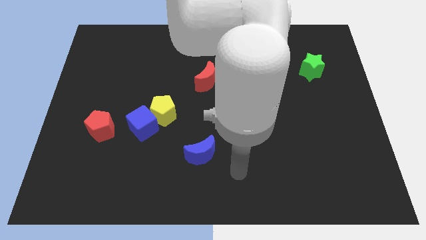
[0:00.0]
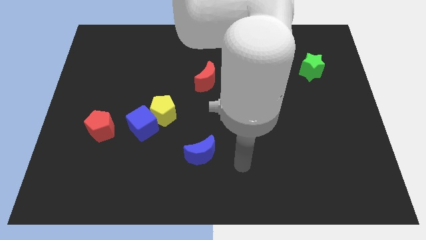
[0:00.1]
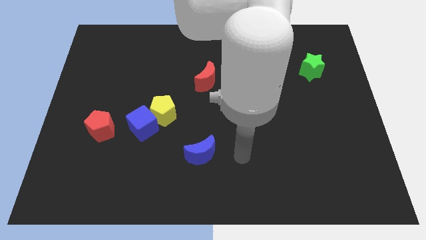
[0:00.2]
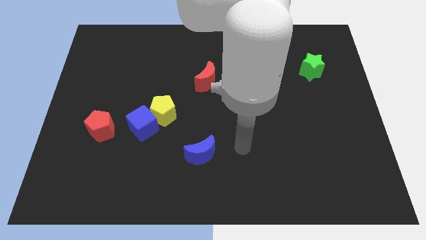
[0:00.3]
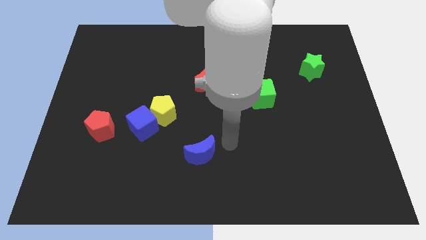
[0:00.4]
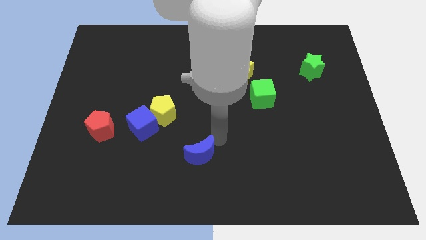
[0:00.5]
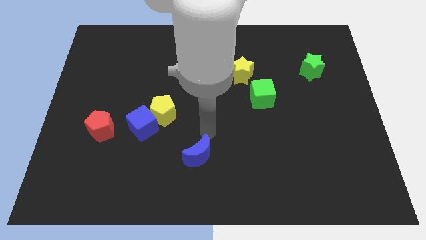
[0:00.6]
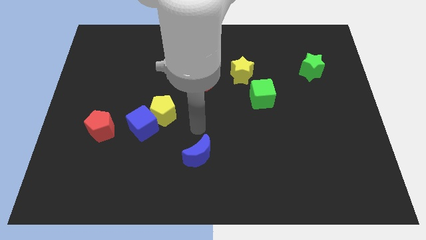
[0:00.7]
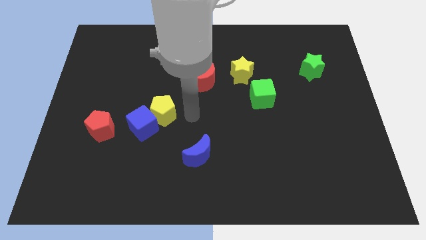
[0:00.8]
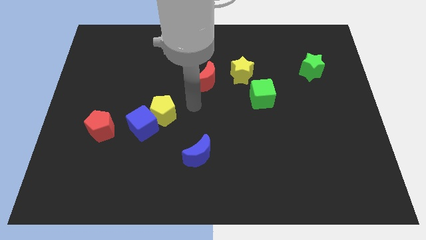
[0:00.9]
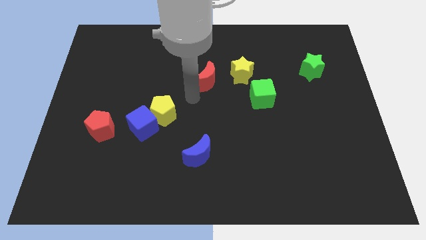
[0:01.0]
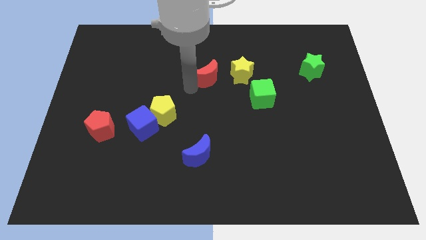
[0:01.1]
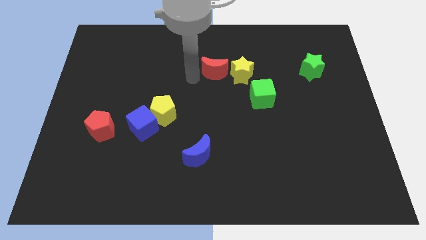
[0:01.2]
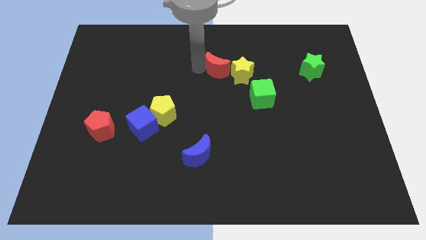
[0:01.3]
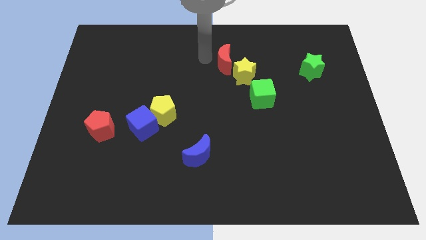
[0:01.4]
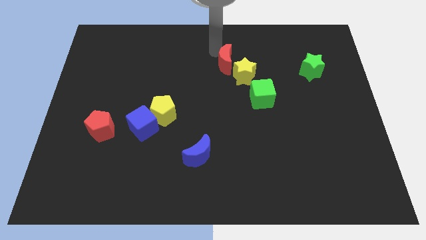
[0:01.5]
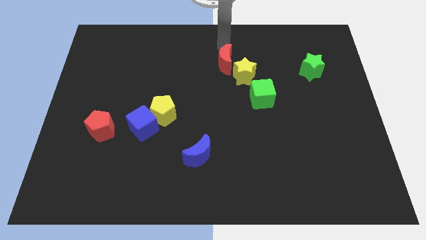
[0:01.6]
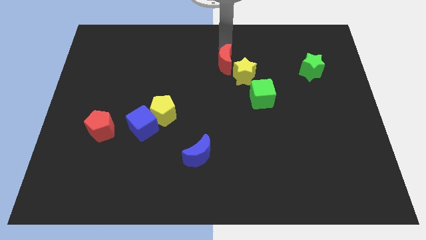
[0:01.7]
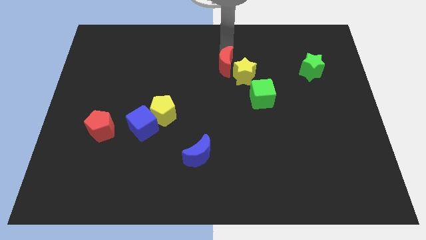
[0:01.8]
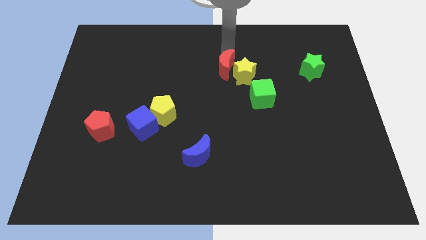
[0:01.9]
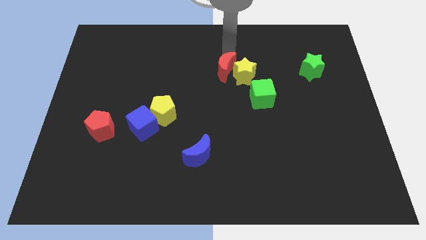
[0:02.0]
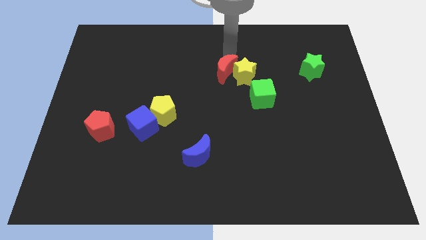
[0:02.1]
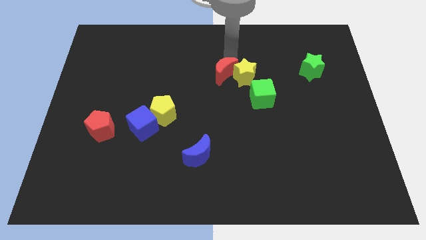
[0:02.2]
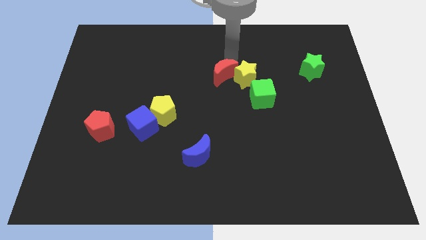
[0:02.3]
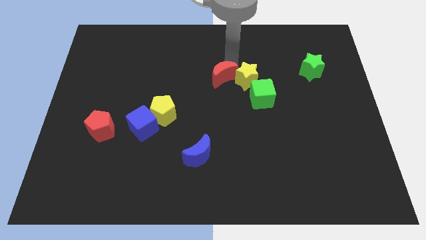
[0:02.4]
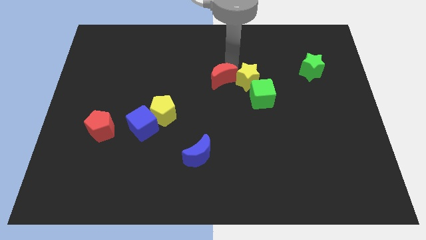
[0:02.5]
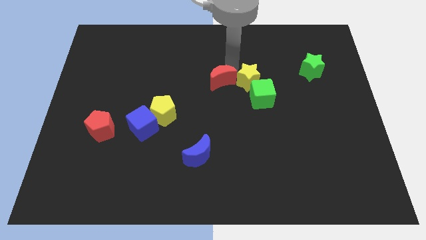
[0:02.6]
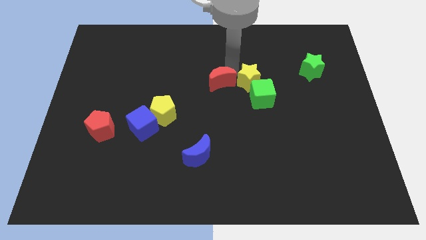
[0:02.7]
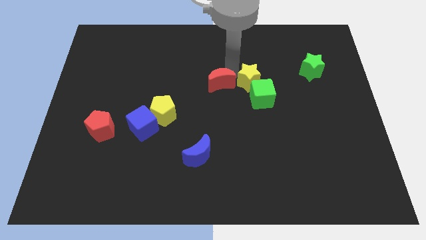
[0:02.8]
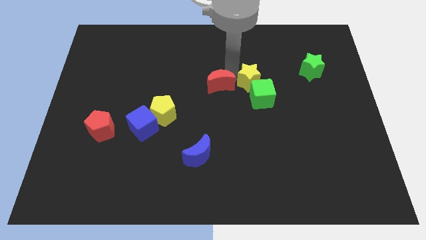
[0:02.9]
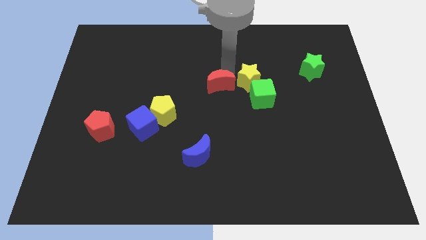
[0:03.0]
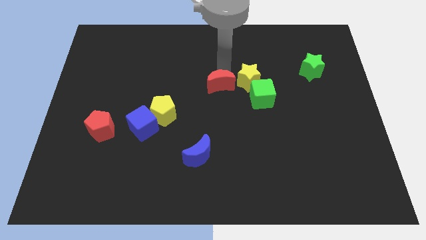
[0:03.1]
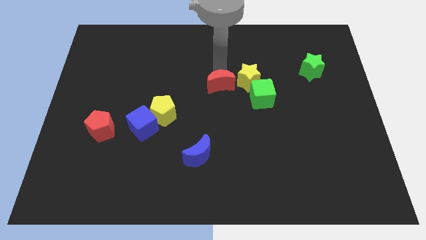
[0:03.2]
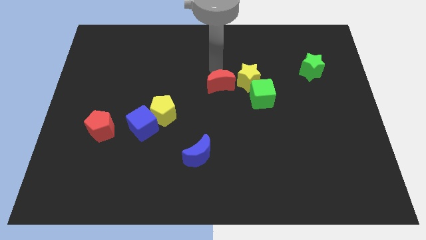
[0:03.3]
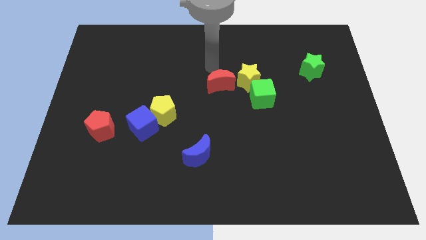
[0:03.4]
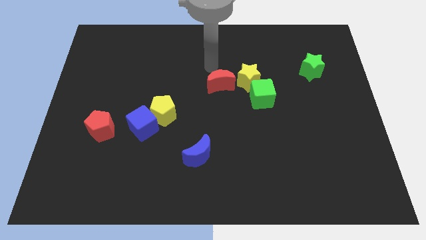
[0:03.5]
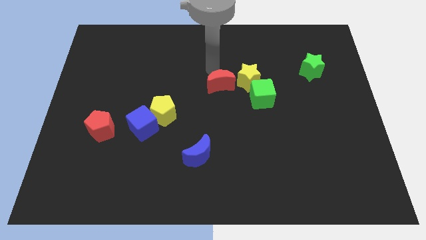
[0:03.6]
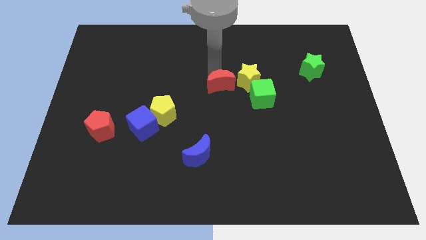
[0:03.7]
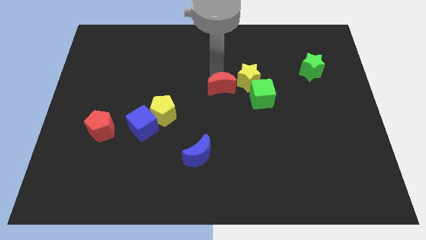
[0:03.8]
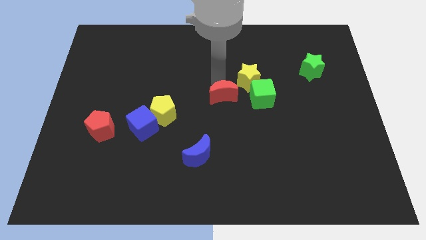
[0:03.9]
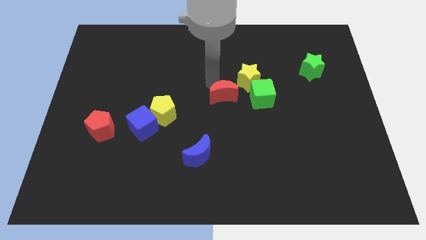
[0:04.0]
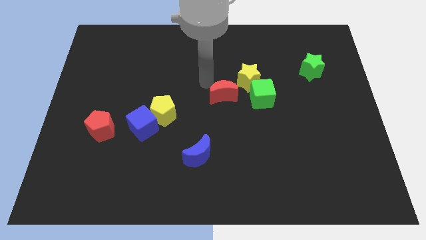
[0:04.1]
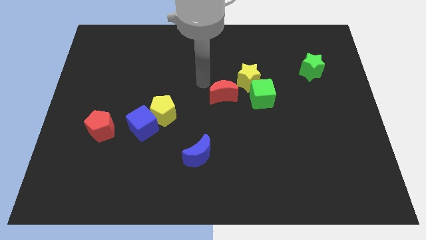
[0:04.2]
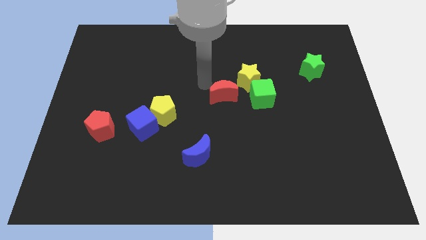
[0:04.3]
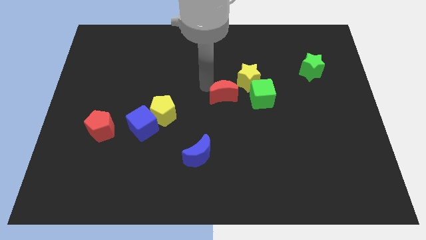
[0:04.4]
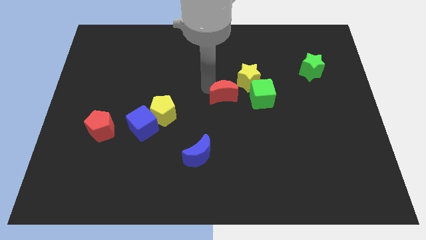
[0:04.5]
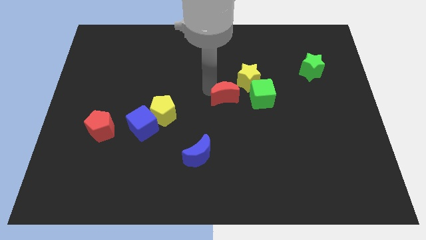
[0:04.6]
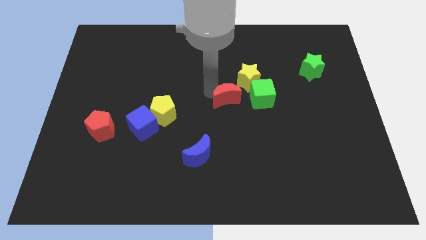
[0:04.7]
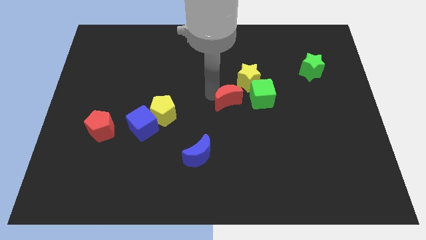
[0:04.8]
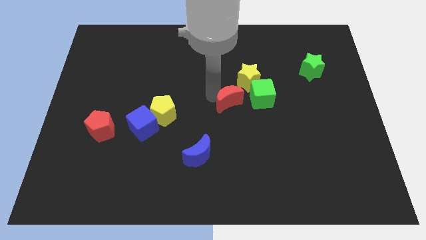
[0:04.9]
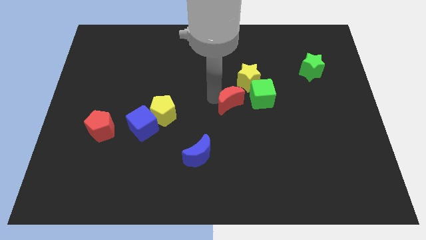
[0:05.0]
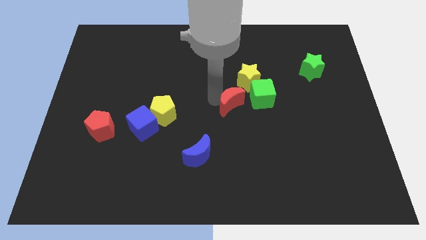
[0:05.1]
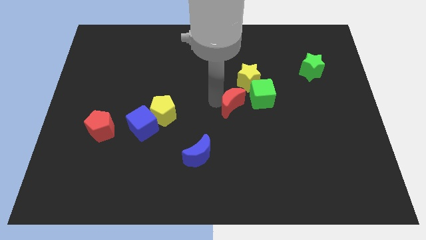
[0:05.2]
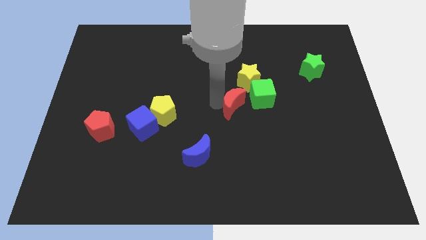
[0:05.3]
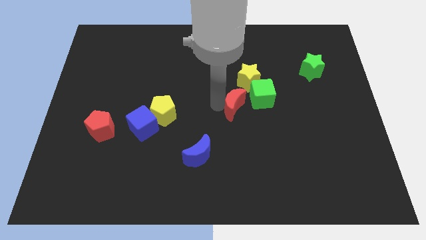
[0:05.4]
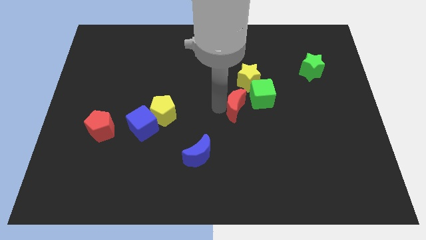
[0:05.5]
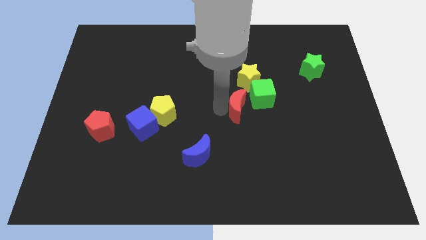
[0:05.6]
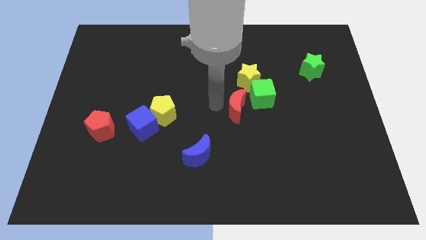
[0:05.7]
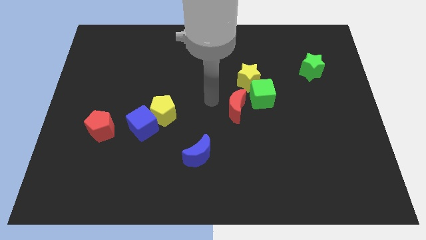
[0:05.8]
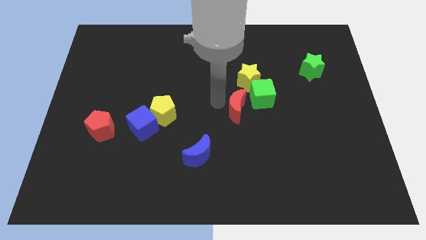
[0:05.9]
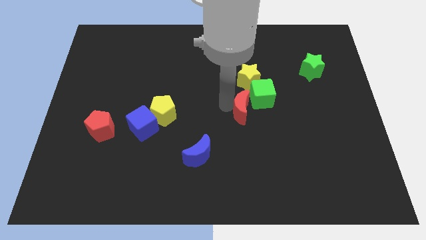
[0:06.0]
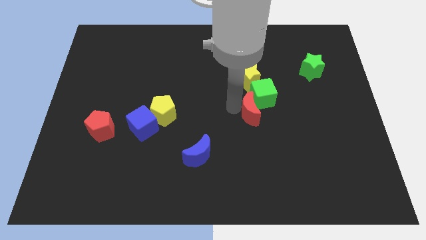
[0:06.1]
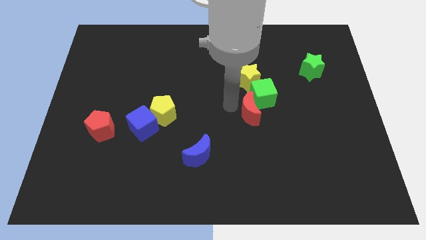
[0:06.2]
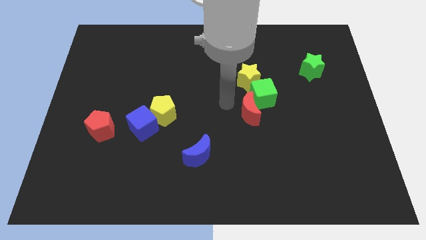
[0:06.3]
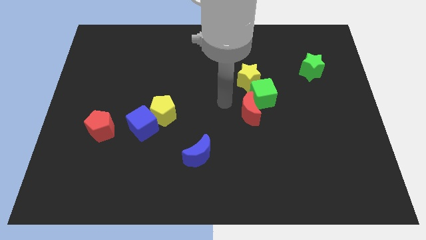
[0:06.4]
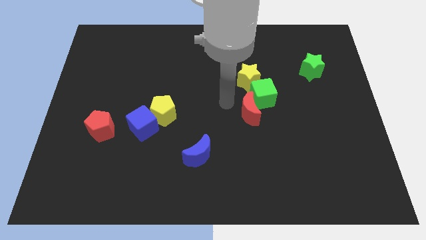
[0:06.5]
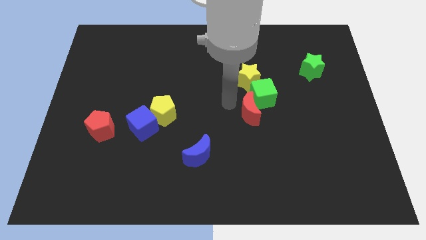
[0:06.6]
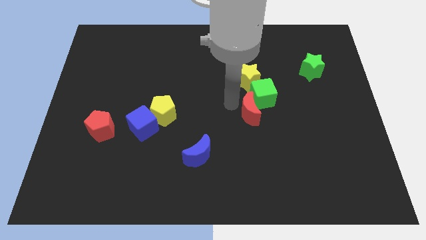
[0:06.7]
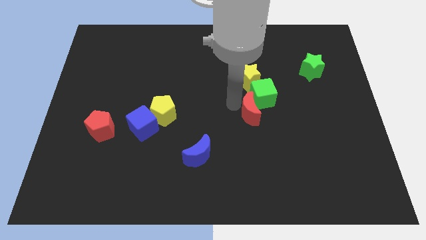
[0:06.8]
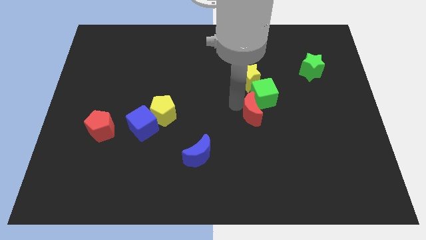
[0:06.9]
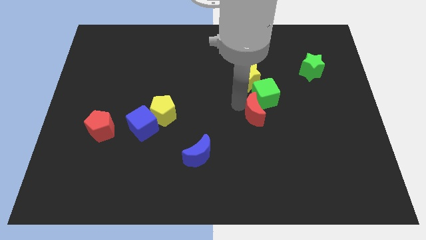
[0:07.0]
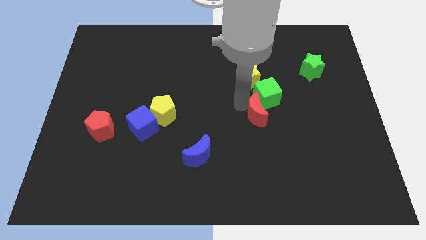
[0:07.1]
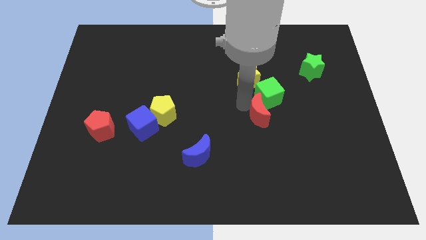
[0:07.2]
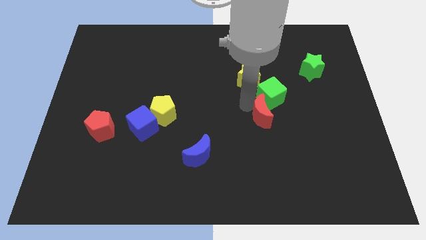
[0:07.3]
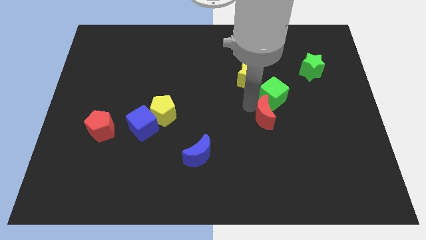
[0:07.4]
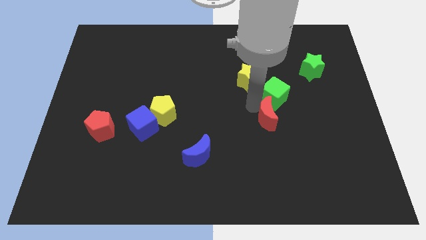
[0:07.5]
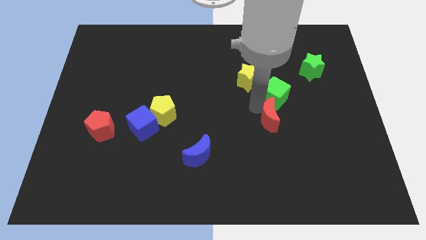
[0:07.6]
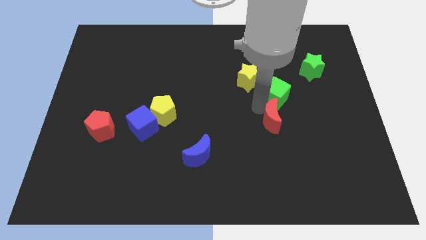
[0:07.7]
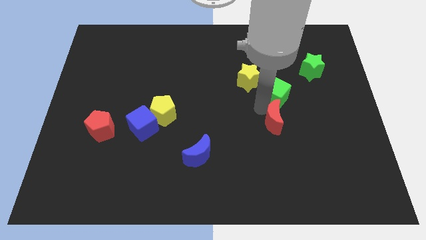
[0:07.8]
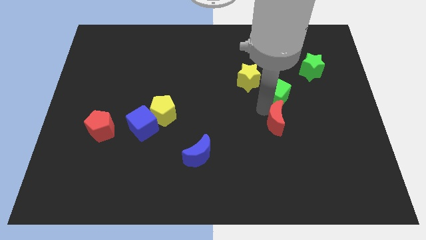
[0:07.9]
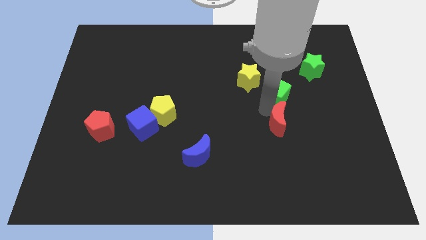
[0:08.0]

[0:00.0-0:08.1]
slide the red moon diagonally downwards and right
